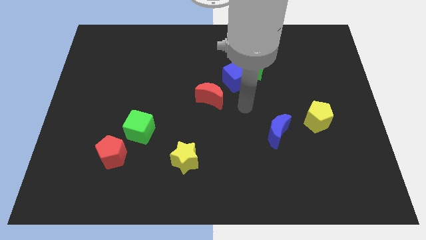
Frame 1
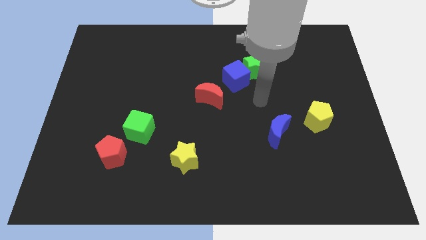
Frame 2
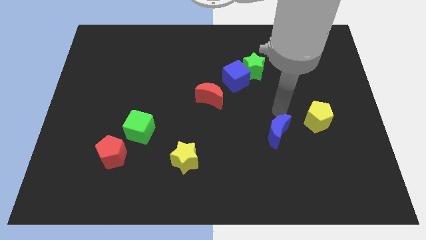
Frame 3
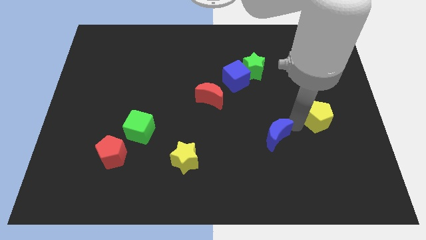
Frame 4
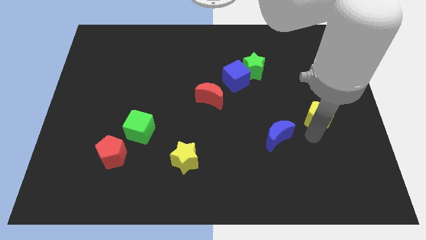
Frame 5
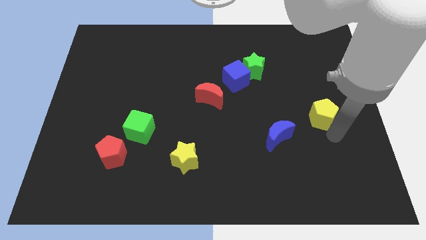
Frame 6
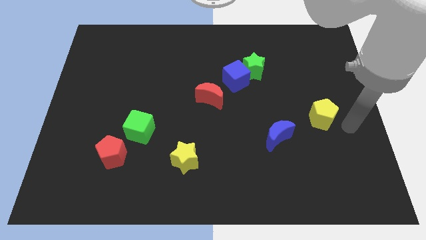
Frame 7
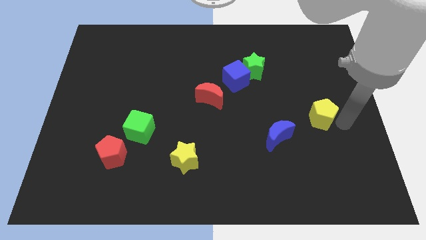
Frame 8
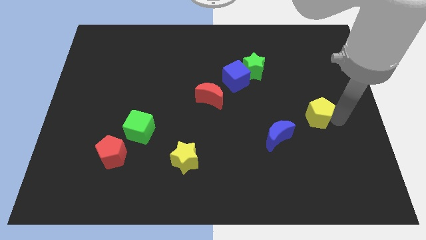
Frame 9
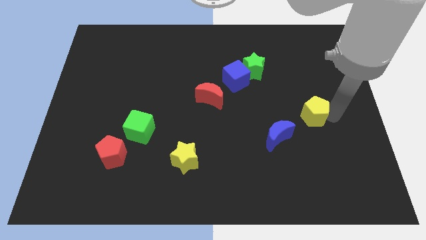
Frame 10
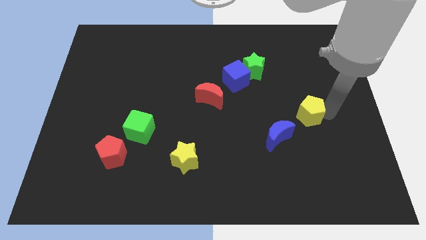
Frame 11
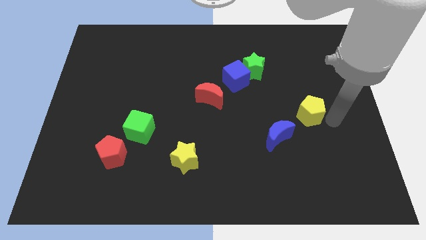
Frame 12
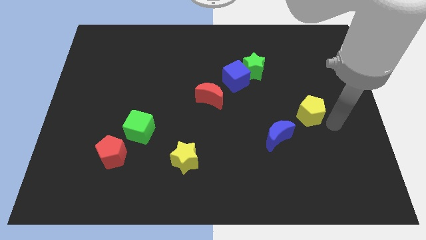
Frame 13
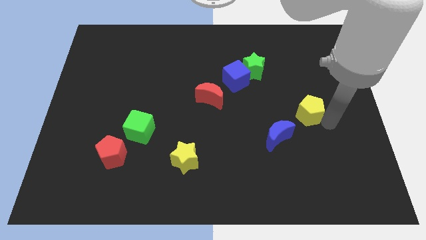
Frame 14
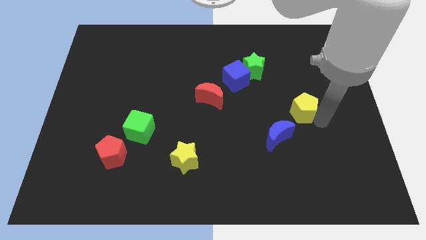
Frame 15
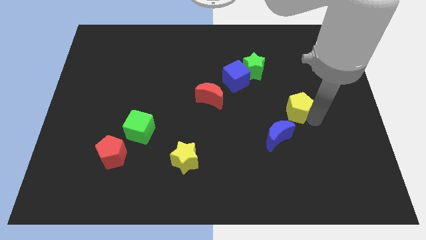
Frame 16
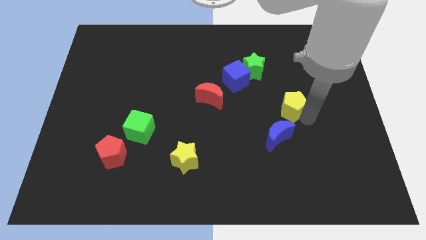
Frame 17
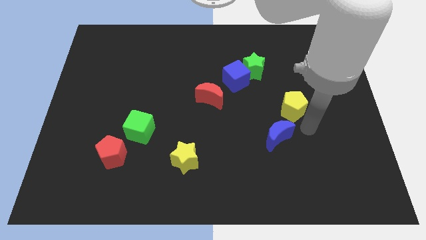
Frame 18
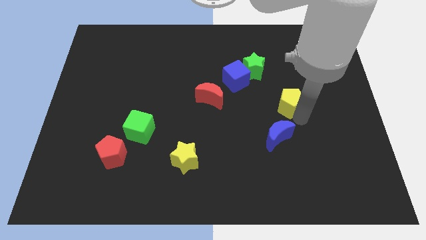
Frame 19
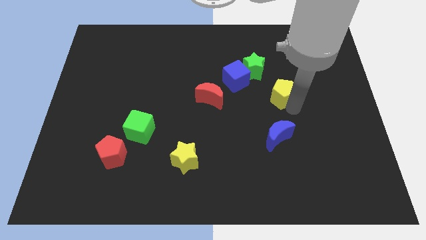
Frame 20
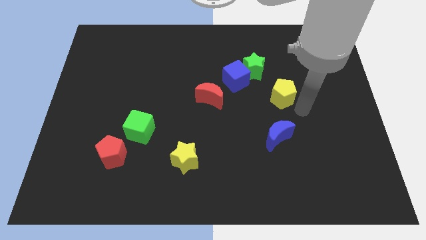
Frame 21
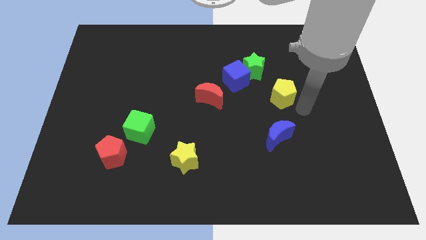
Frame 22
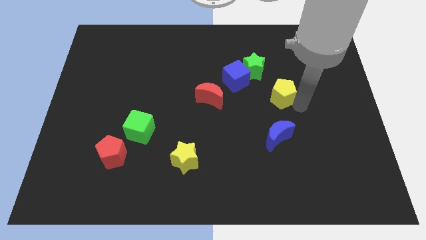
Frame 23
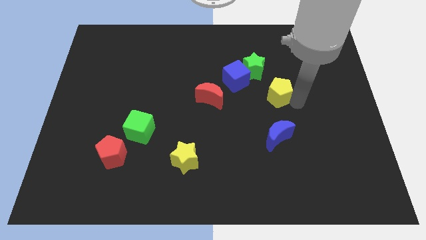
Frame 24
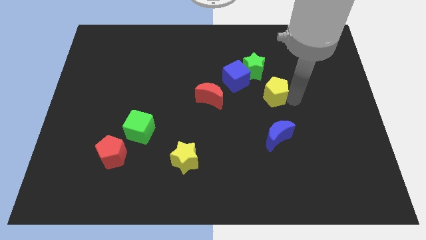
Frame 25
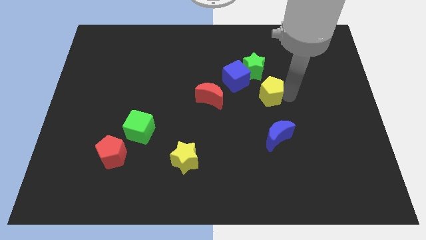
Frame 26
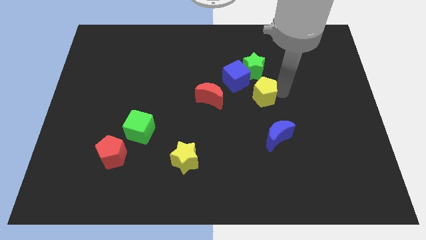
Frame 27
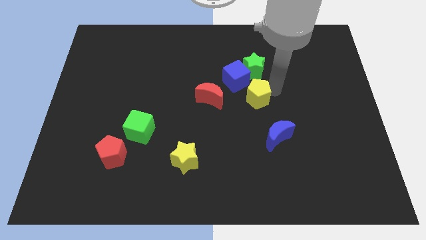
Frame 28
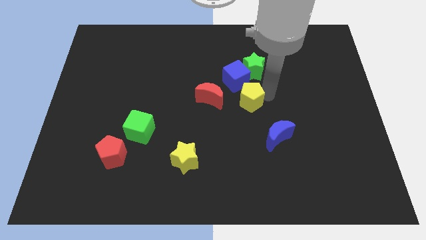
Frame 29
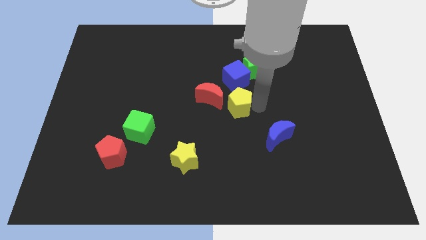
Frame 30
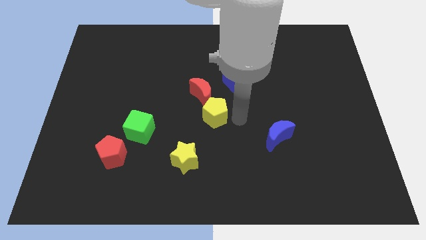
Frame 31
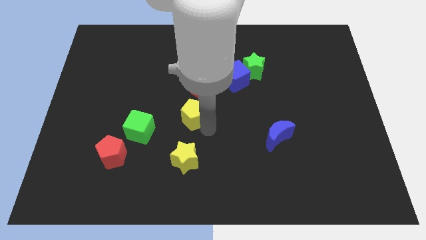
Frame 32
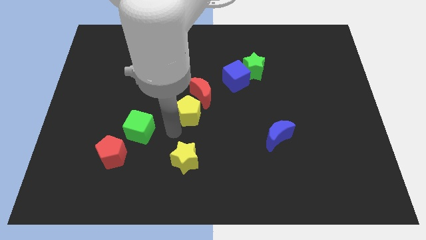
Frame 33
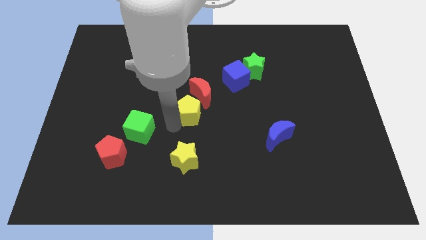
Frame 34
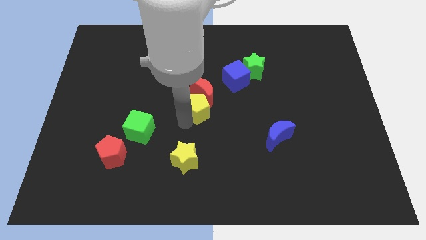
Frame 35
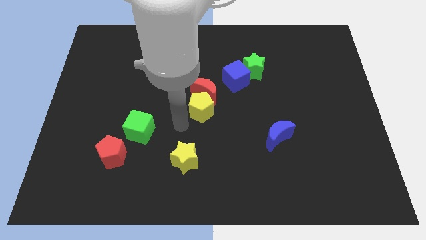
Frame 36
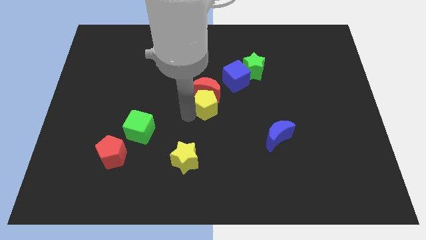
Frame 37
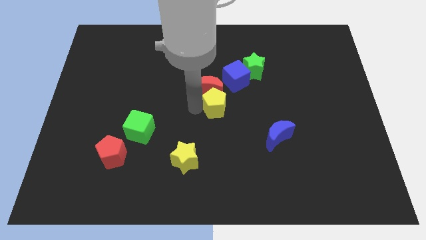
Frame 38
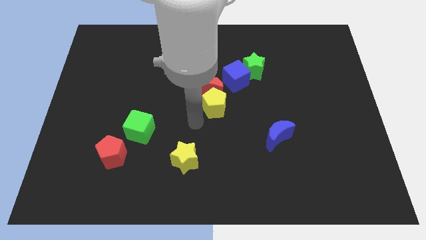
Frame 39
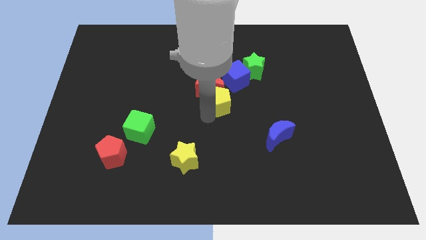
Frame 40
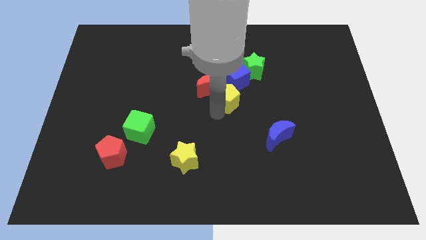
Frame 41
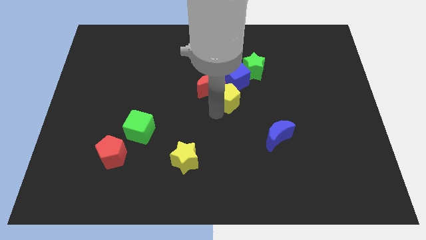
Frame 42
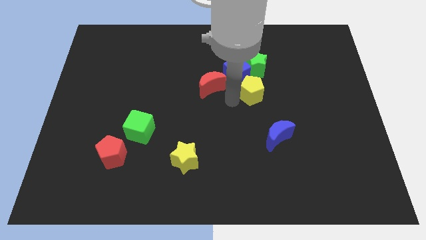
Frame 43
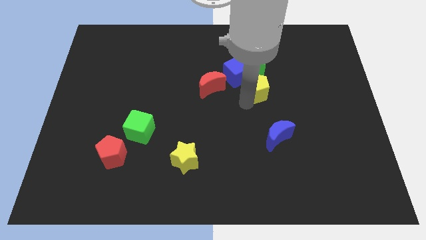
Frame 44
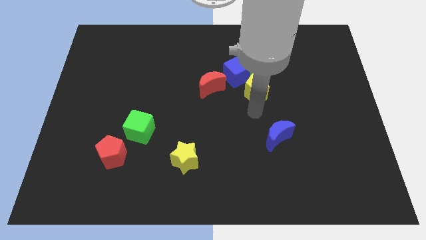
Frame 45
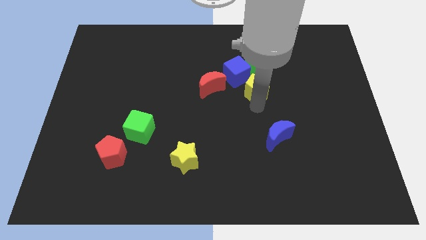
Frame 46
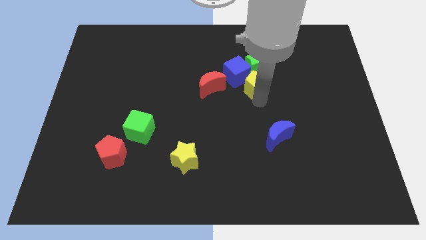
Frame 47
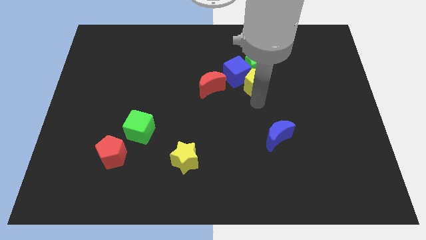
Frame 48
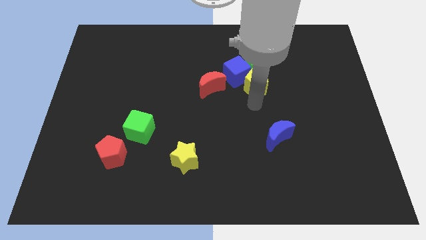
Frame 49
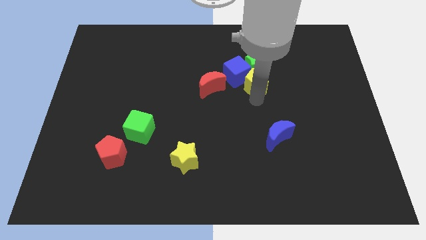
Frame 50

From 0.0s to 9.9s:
slide the yellow pentagon towards the green star

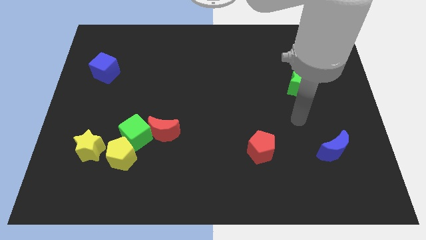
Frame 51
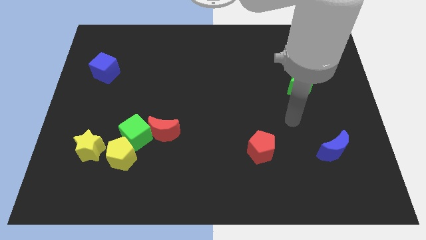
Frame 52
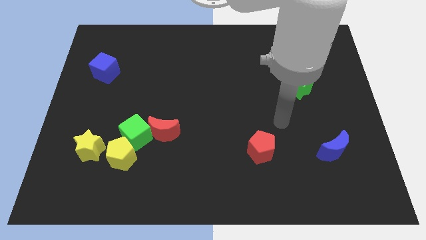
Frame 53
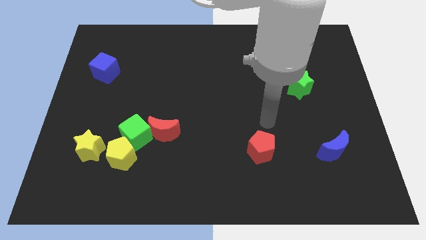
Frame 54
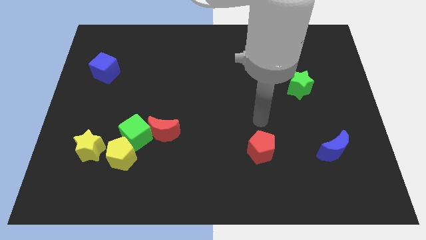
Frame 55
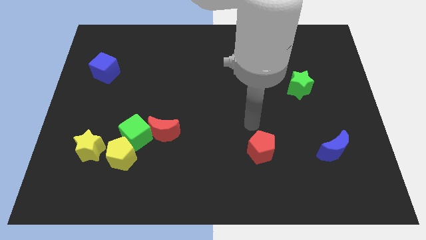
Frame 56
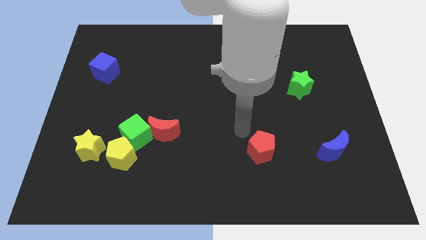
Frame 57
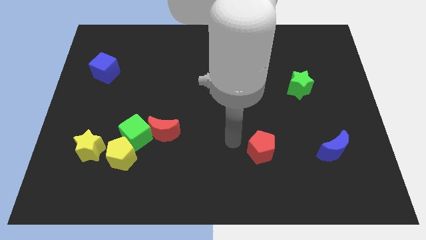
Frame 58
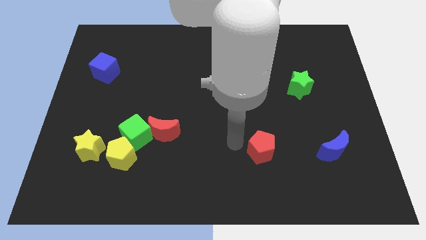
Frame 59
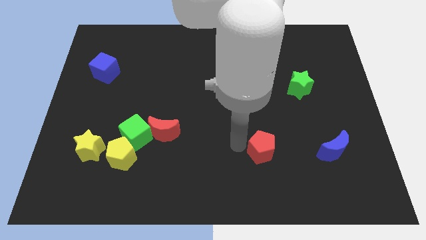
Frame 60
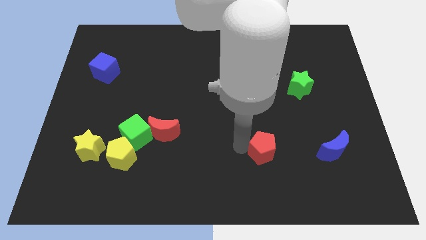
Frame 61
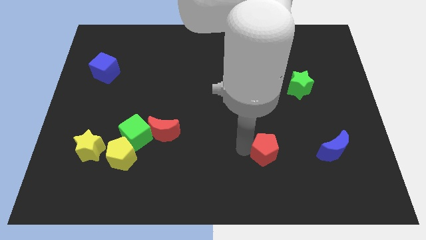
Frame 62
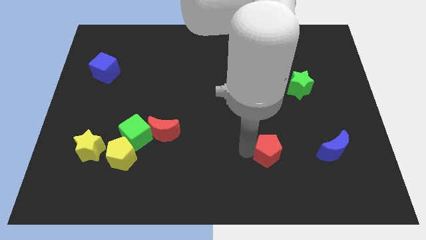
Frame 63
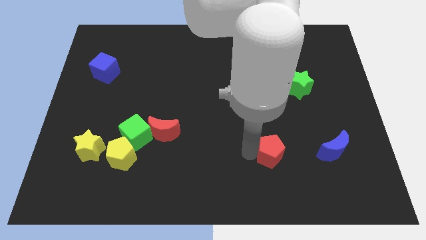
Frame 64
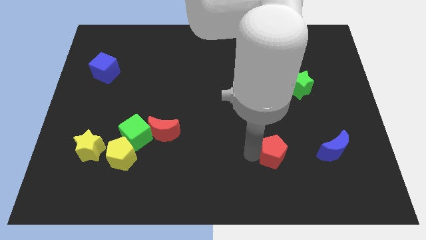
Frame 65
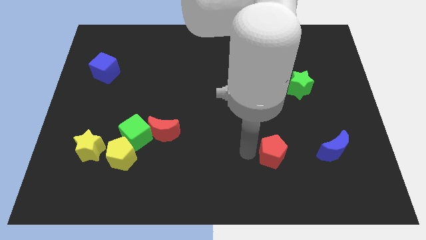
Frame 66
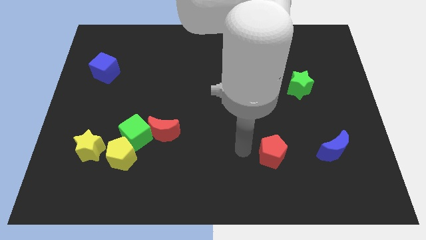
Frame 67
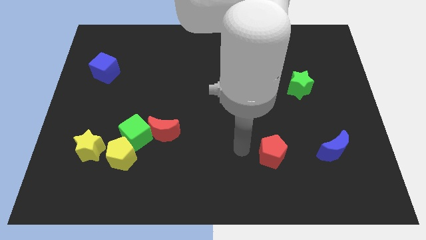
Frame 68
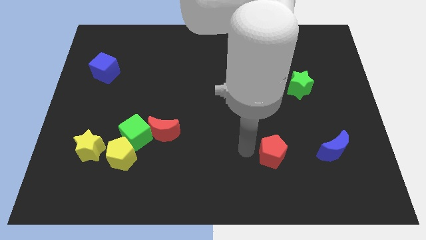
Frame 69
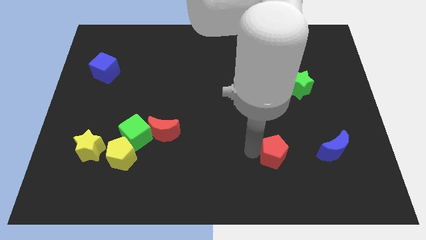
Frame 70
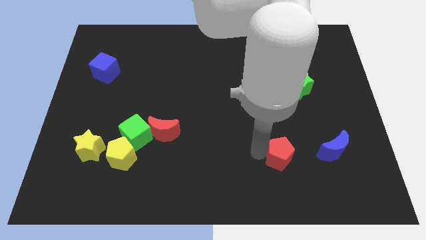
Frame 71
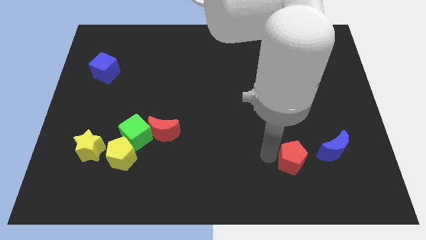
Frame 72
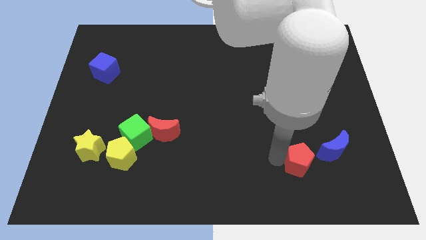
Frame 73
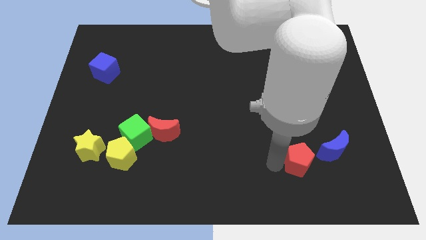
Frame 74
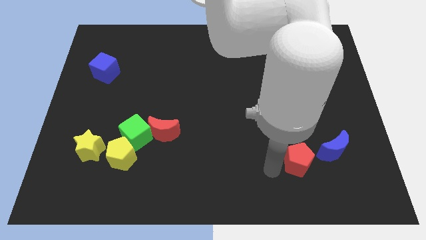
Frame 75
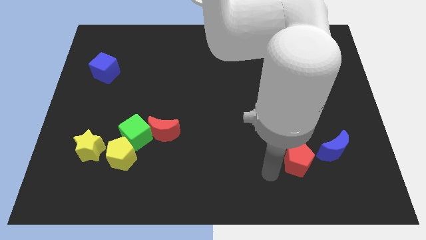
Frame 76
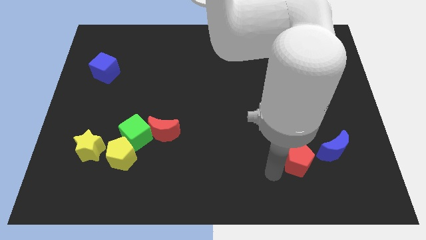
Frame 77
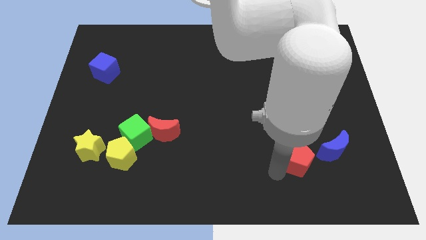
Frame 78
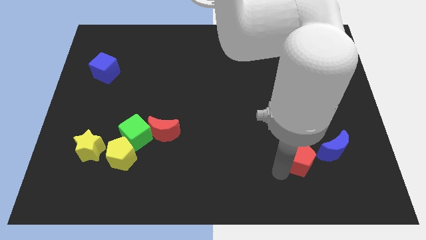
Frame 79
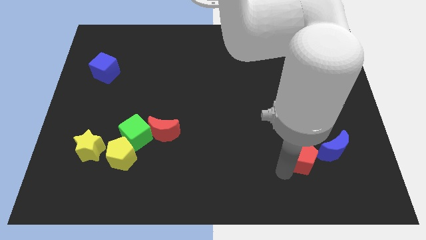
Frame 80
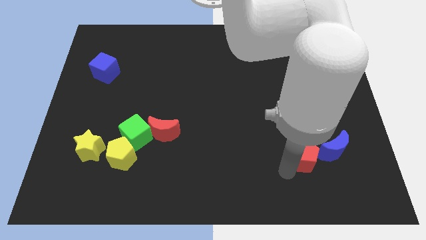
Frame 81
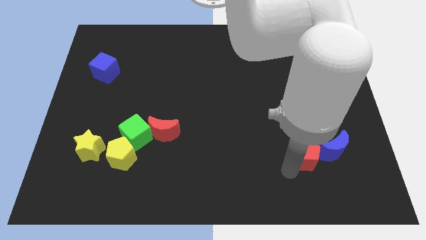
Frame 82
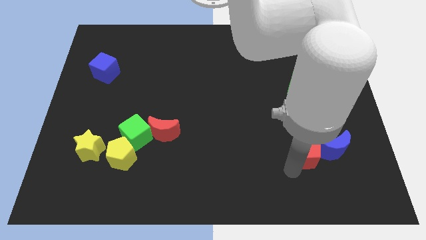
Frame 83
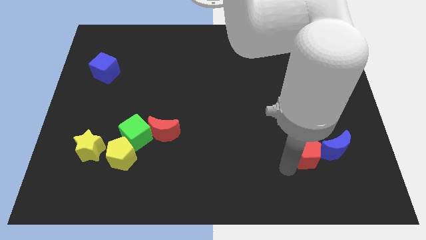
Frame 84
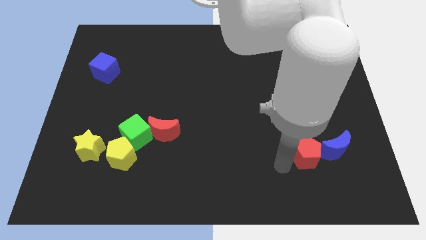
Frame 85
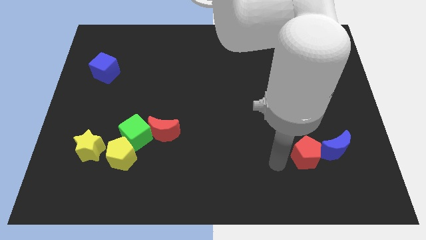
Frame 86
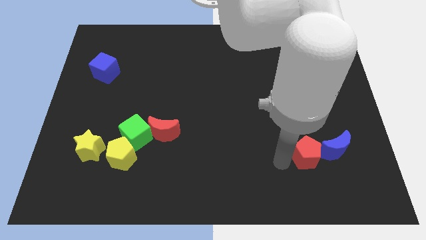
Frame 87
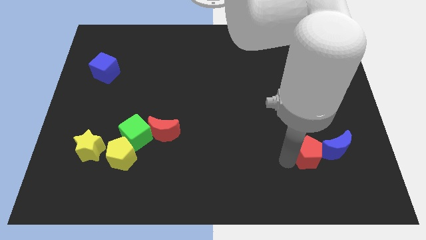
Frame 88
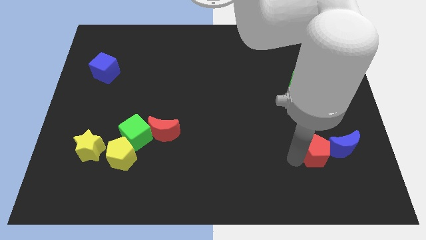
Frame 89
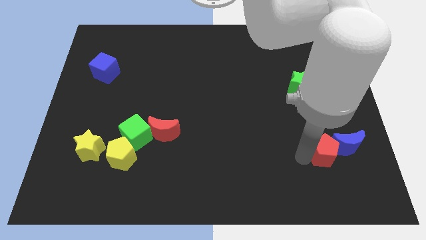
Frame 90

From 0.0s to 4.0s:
push the red pentagon to the blue moon
